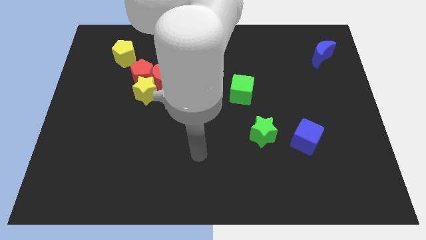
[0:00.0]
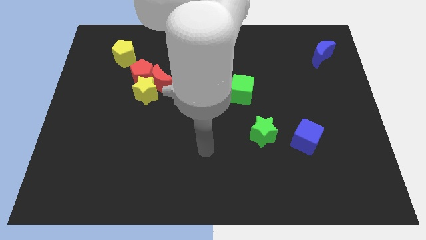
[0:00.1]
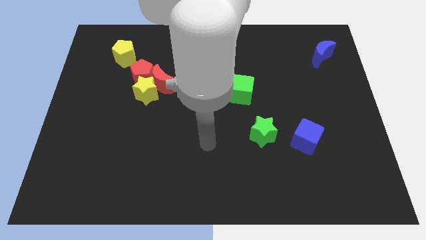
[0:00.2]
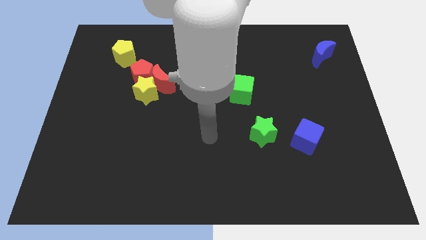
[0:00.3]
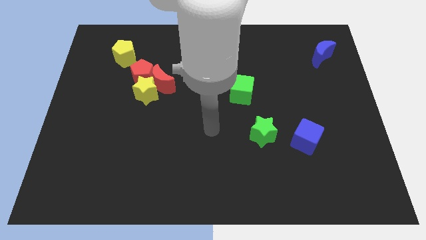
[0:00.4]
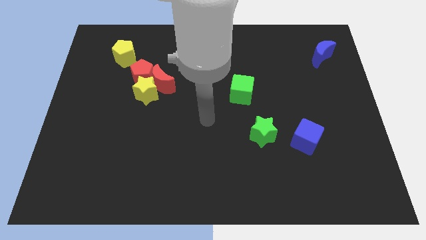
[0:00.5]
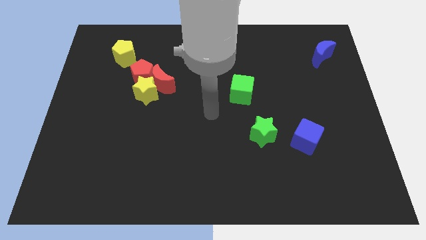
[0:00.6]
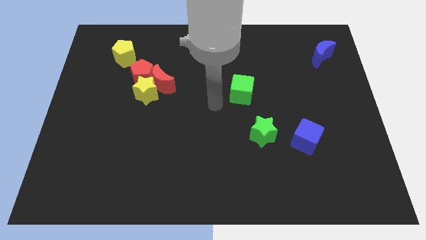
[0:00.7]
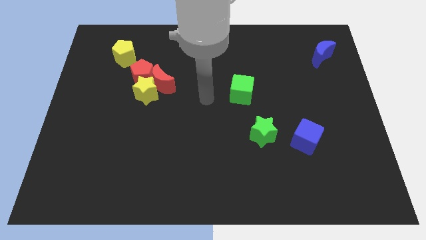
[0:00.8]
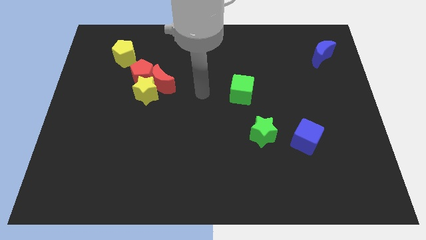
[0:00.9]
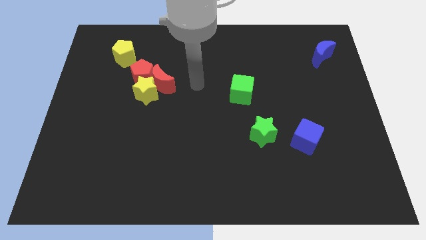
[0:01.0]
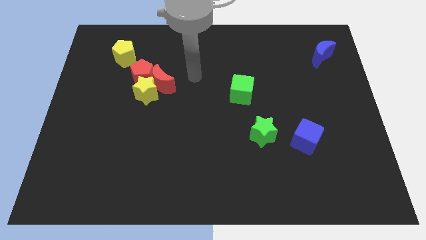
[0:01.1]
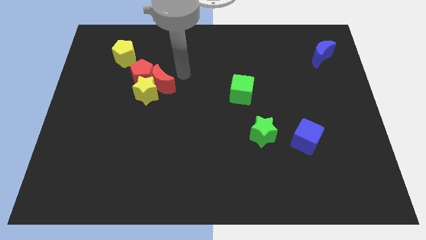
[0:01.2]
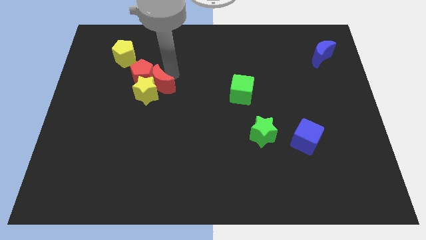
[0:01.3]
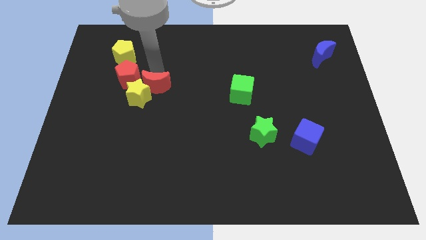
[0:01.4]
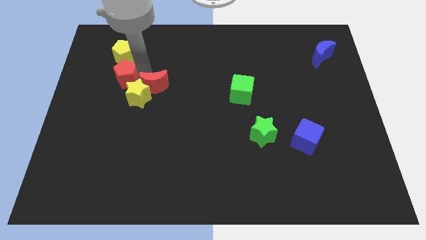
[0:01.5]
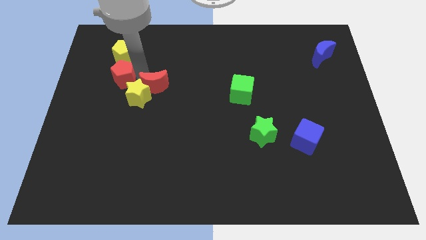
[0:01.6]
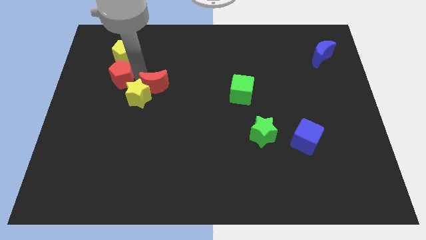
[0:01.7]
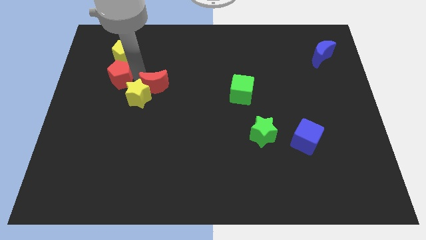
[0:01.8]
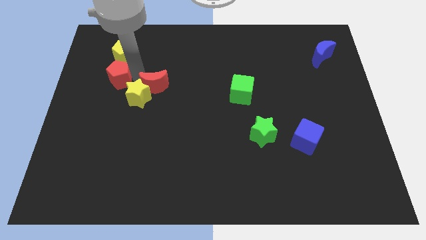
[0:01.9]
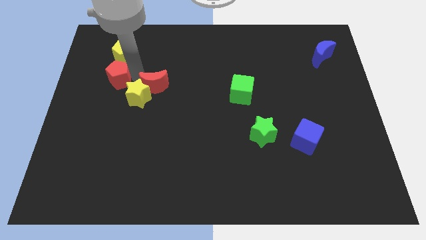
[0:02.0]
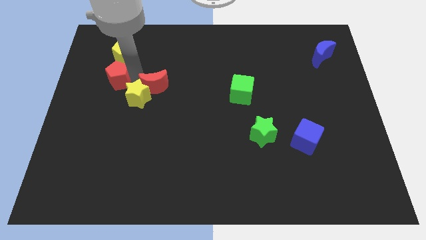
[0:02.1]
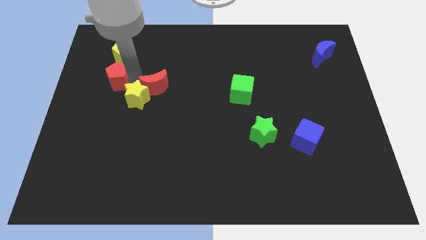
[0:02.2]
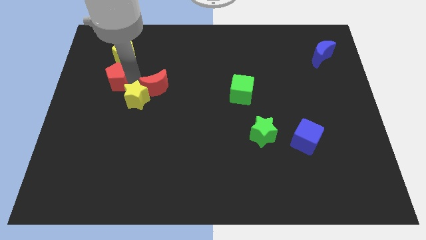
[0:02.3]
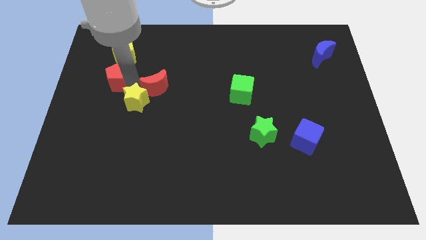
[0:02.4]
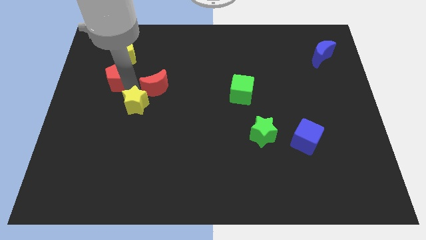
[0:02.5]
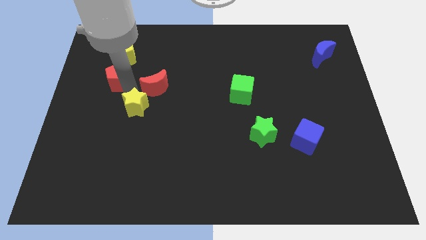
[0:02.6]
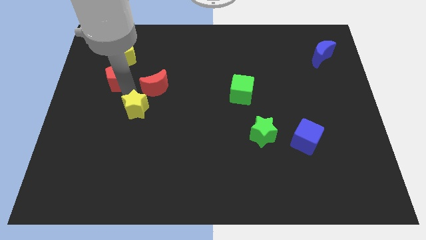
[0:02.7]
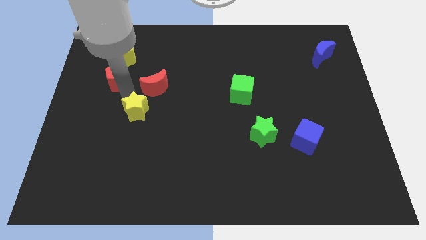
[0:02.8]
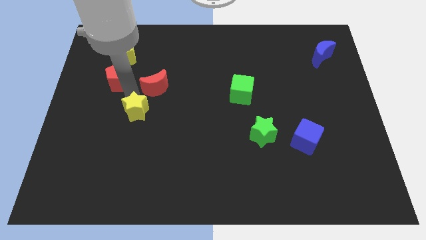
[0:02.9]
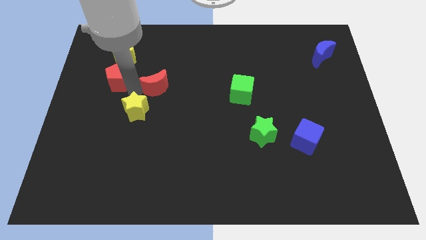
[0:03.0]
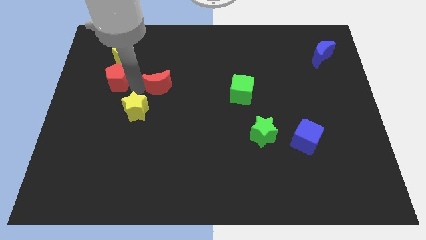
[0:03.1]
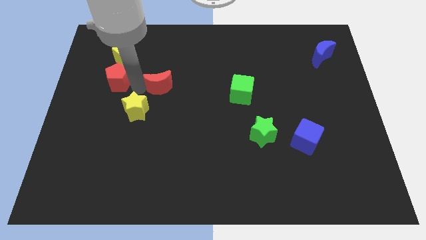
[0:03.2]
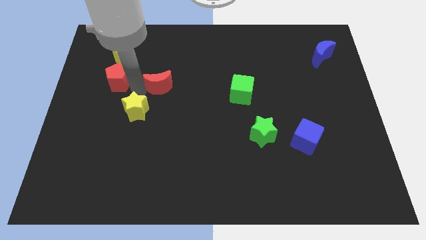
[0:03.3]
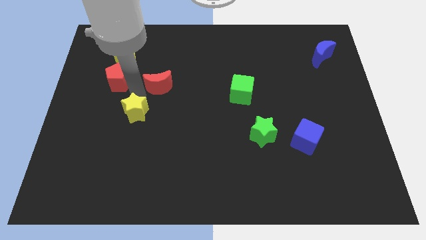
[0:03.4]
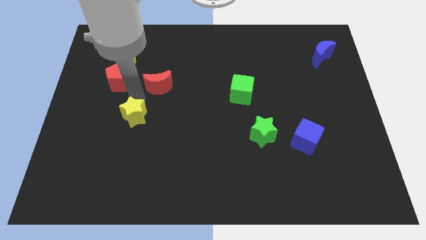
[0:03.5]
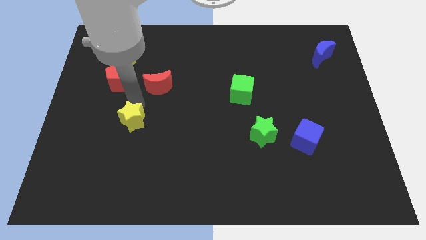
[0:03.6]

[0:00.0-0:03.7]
move the yellow star away from the red moon and red pentagon

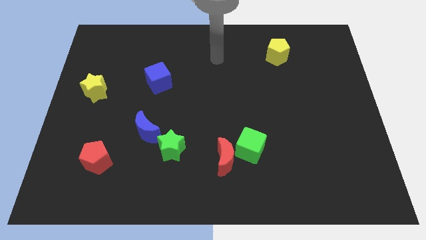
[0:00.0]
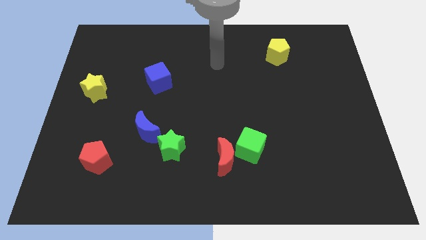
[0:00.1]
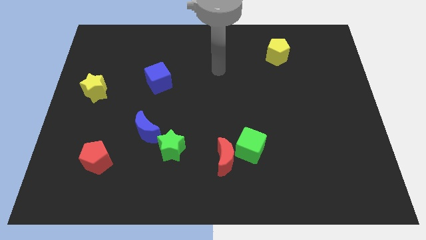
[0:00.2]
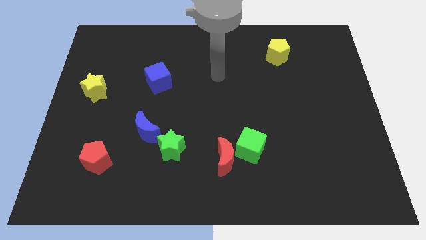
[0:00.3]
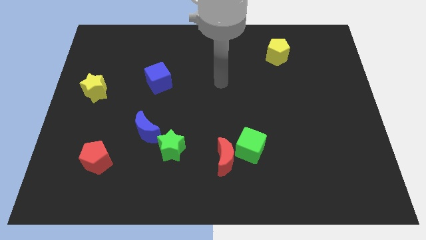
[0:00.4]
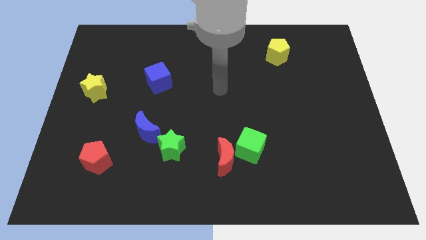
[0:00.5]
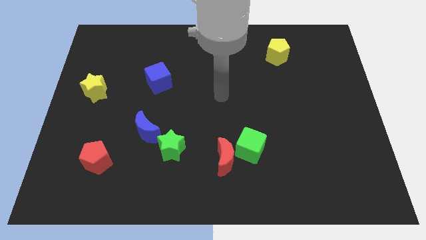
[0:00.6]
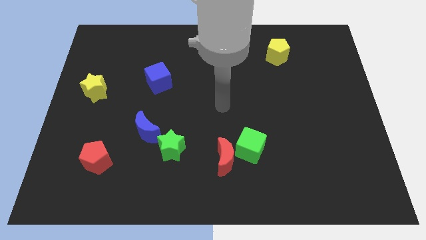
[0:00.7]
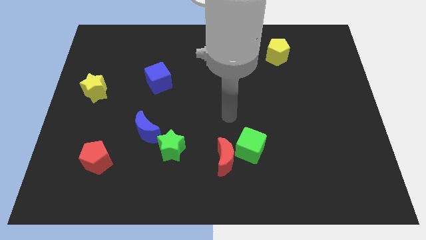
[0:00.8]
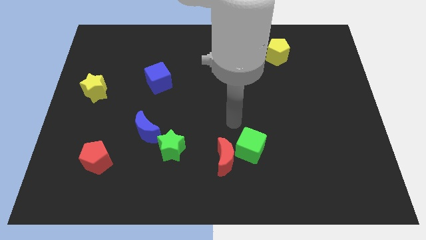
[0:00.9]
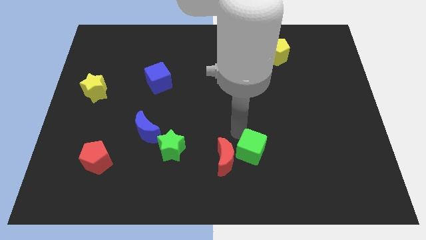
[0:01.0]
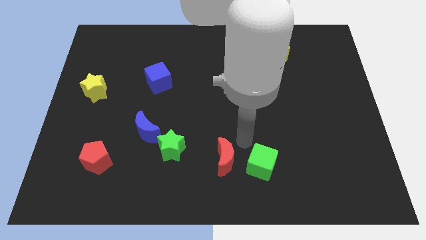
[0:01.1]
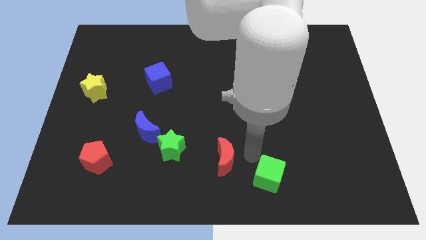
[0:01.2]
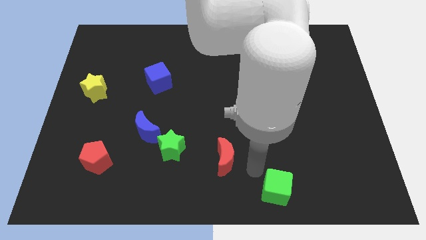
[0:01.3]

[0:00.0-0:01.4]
move the red moon away from the green cube

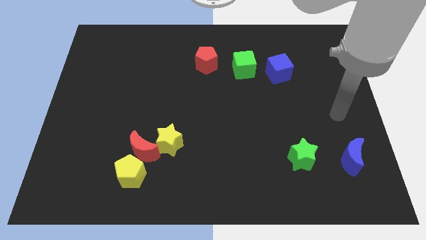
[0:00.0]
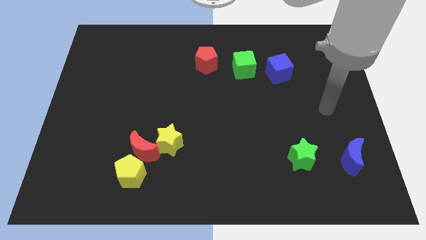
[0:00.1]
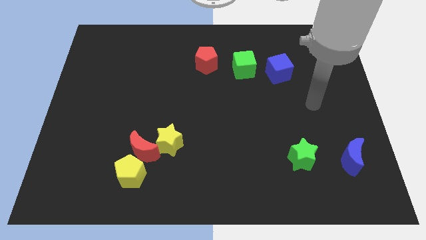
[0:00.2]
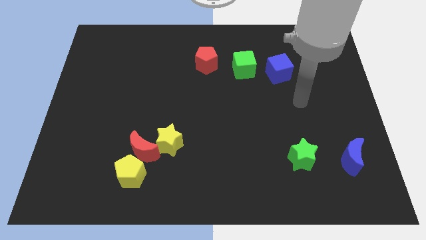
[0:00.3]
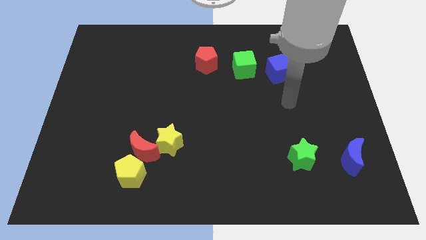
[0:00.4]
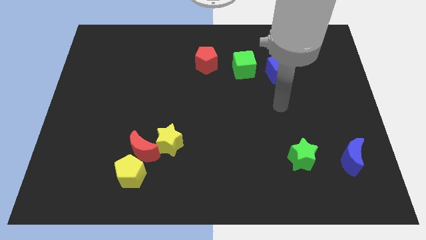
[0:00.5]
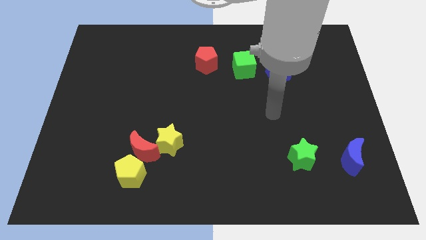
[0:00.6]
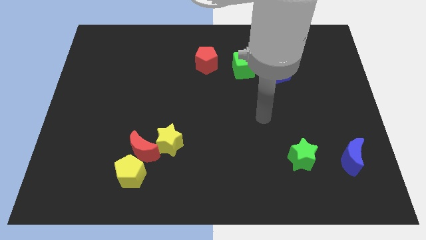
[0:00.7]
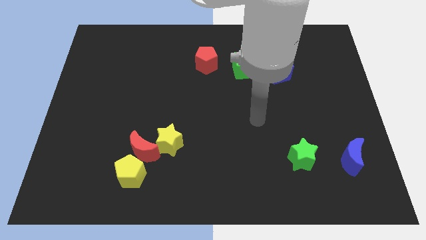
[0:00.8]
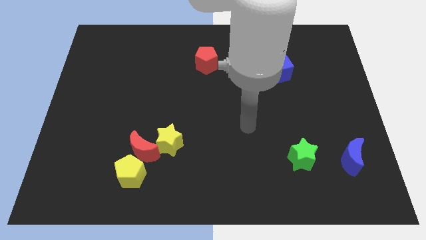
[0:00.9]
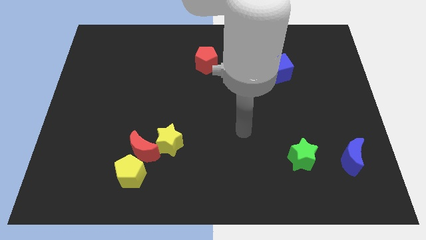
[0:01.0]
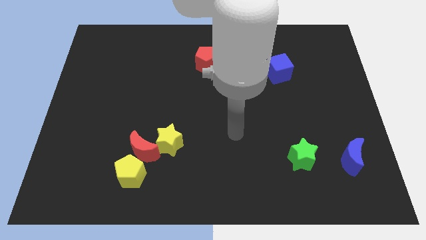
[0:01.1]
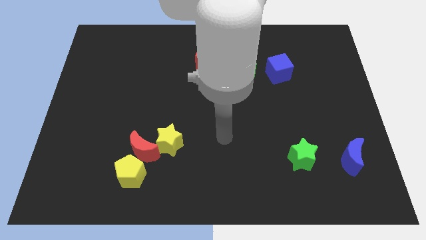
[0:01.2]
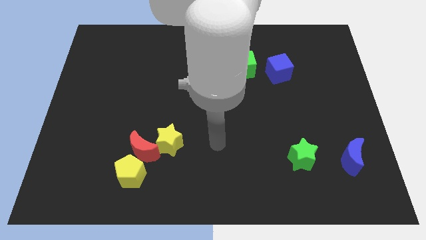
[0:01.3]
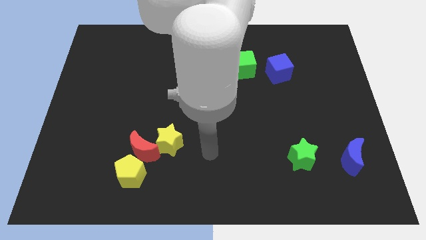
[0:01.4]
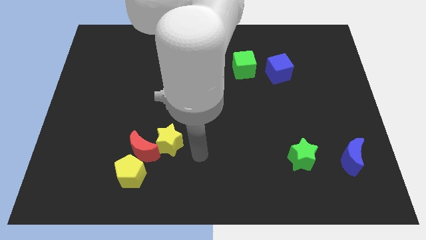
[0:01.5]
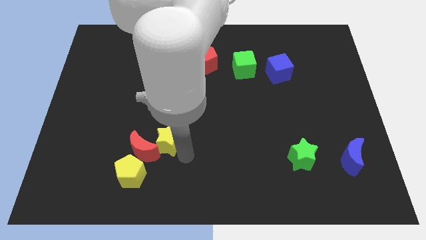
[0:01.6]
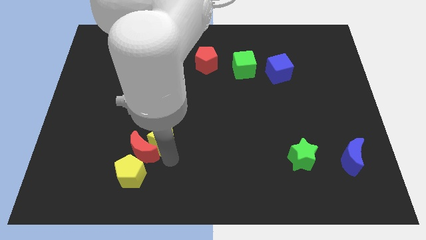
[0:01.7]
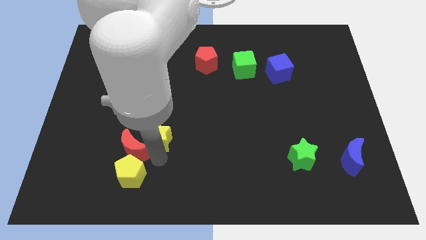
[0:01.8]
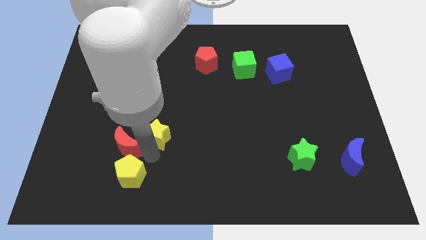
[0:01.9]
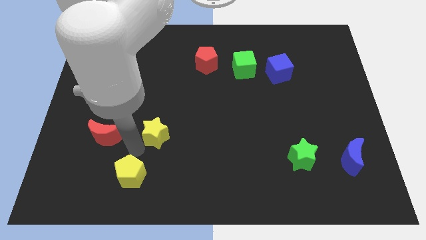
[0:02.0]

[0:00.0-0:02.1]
move the yellow star away from the red moon

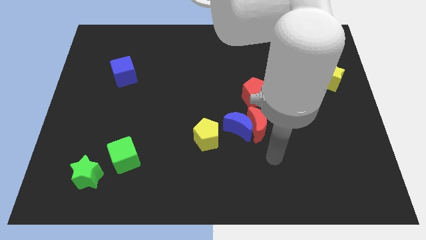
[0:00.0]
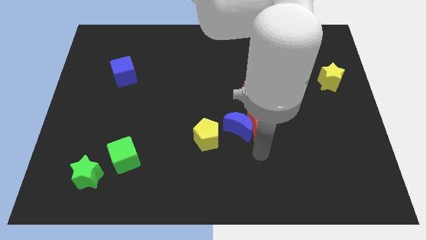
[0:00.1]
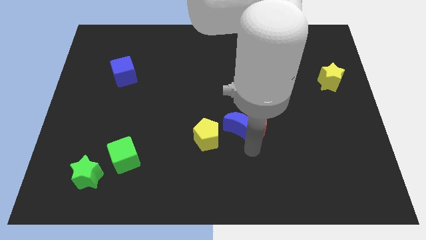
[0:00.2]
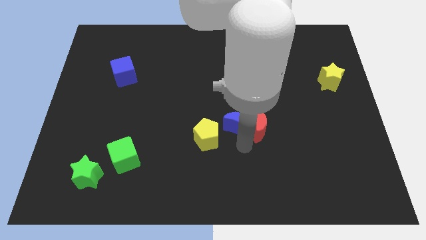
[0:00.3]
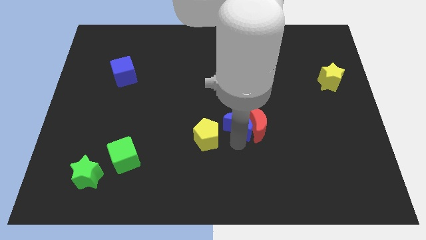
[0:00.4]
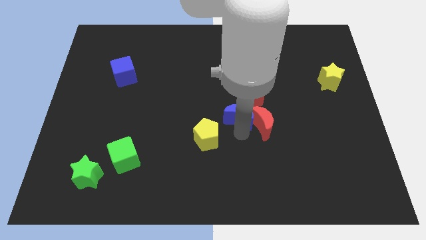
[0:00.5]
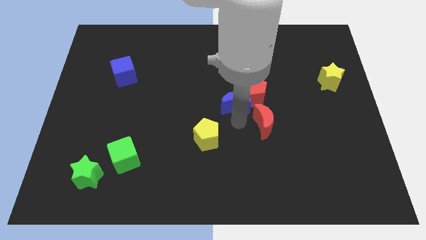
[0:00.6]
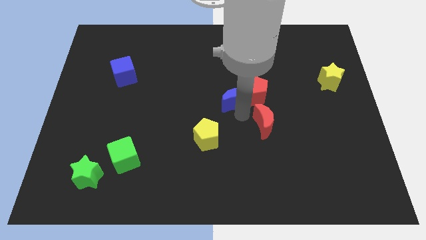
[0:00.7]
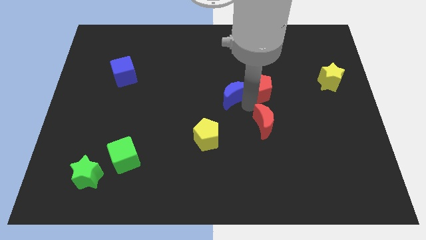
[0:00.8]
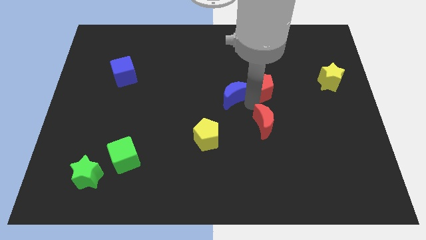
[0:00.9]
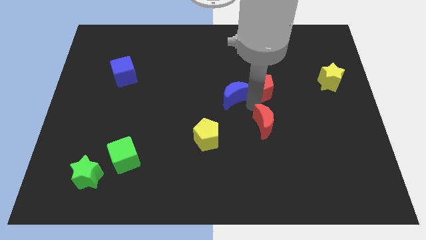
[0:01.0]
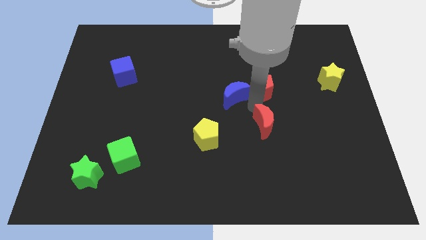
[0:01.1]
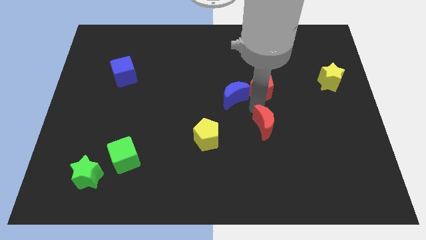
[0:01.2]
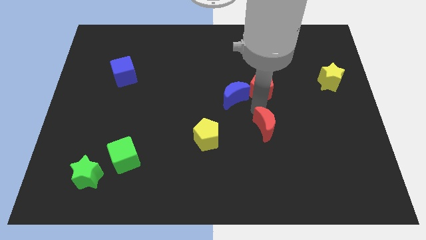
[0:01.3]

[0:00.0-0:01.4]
separate the red moon from the blue moon and red pentagon

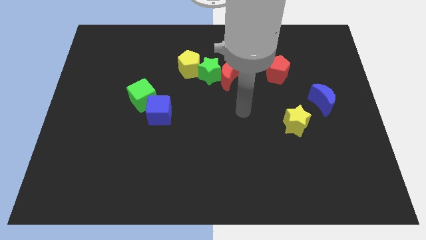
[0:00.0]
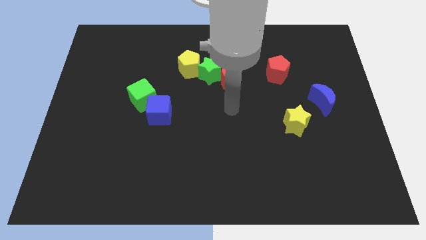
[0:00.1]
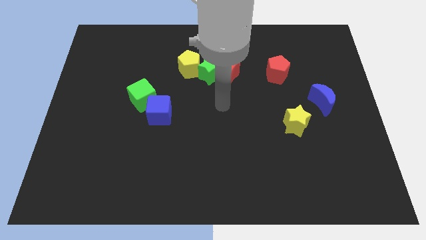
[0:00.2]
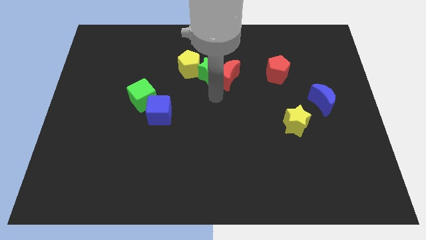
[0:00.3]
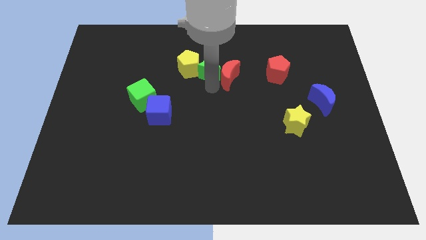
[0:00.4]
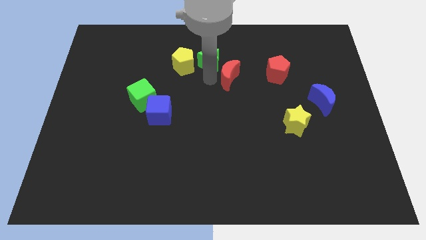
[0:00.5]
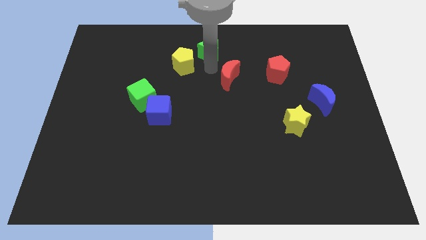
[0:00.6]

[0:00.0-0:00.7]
move the red moon away from the green star
